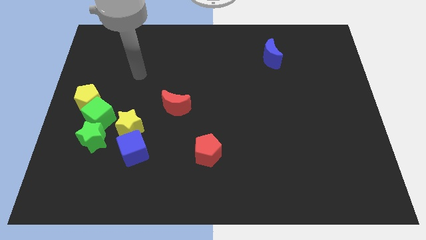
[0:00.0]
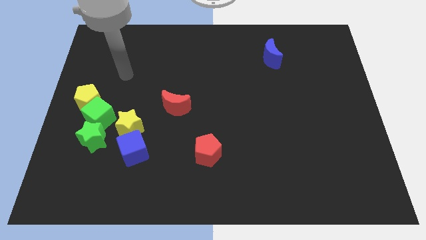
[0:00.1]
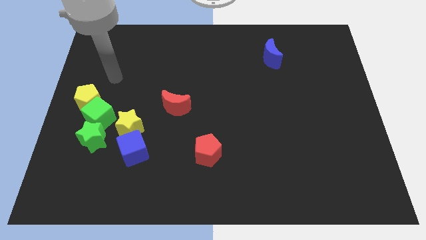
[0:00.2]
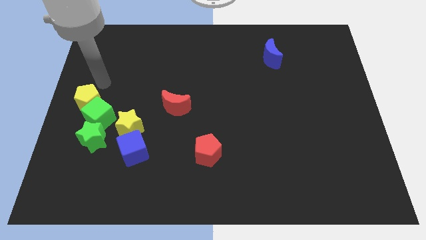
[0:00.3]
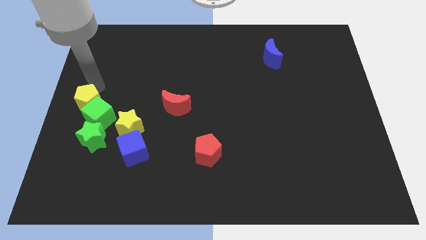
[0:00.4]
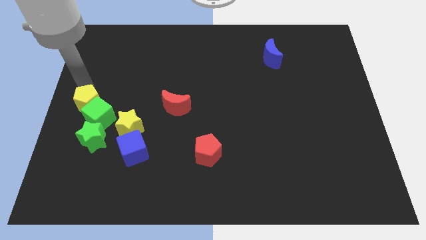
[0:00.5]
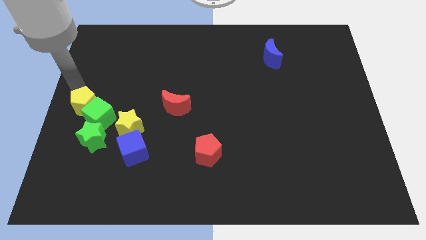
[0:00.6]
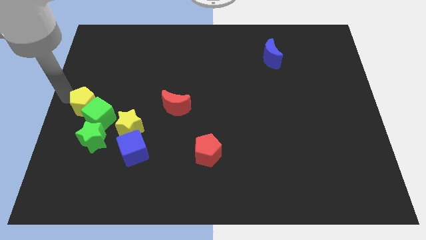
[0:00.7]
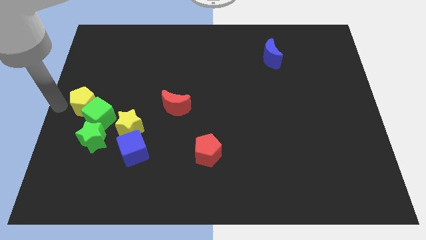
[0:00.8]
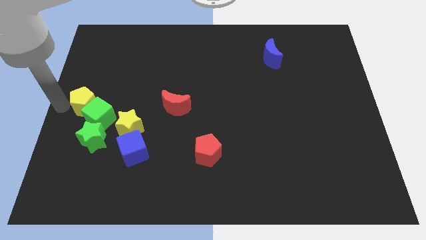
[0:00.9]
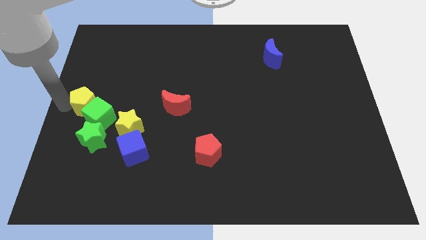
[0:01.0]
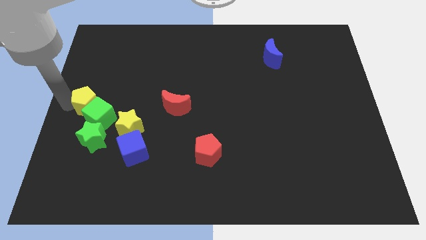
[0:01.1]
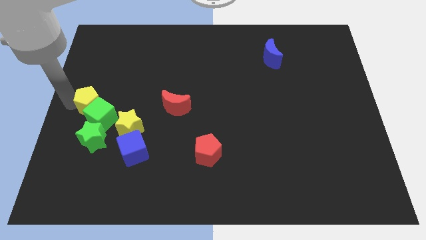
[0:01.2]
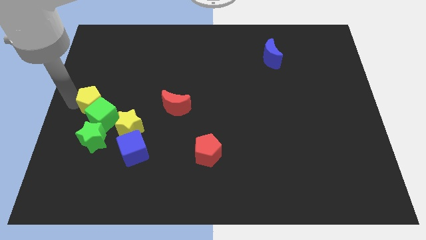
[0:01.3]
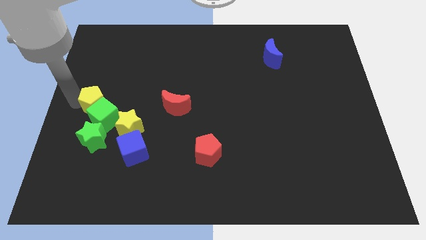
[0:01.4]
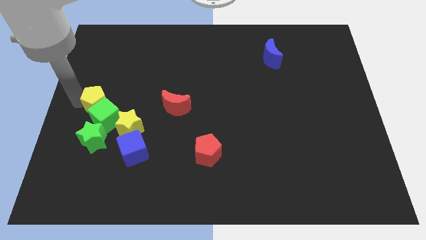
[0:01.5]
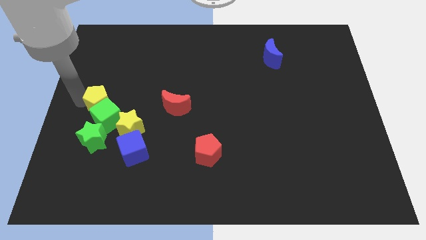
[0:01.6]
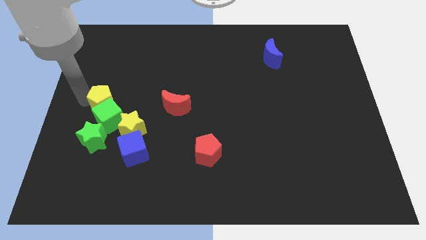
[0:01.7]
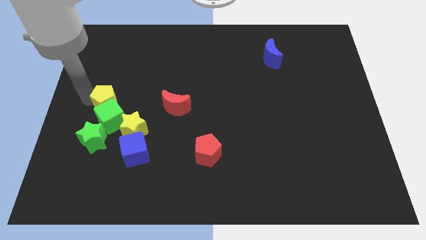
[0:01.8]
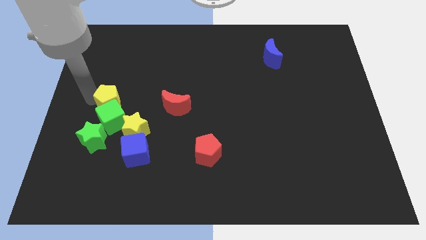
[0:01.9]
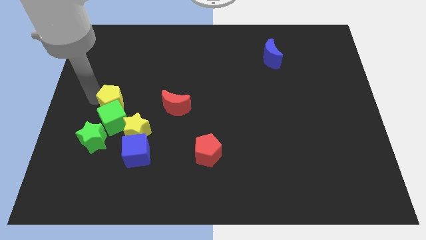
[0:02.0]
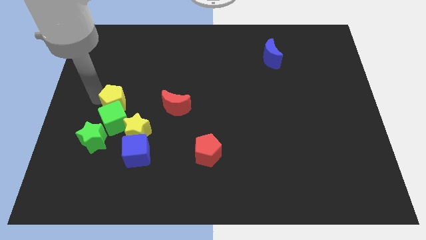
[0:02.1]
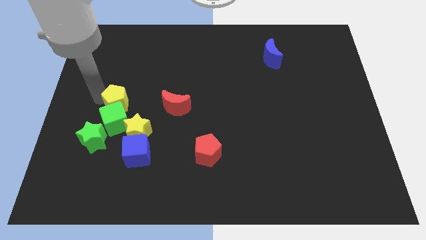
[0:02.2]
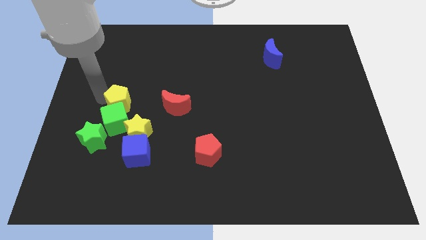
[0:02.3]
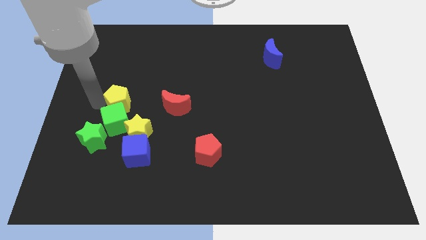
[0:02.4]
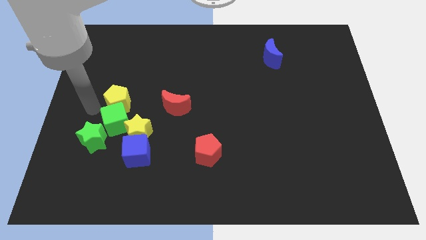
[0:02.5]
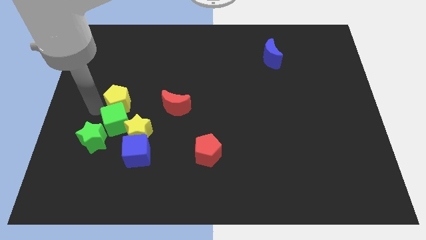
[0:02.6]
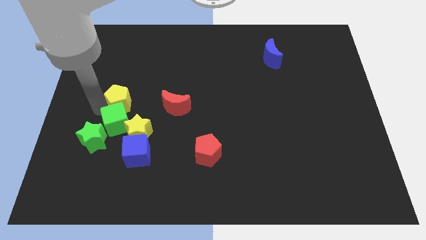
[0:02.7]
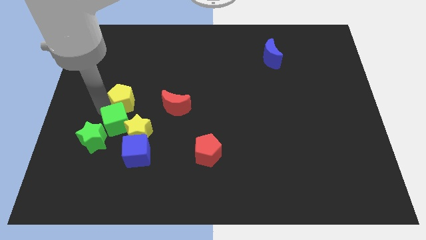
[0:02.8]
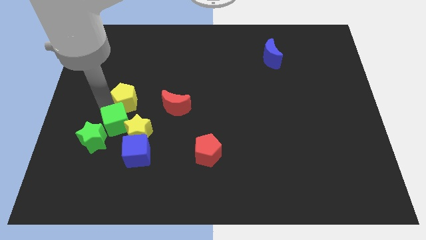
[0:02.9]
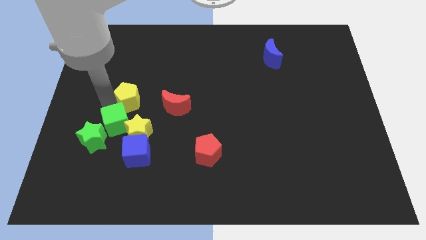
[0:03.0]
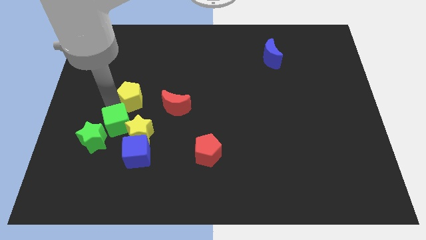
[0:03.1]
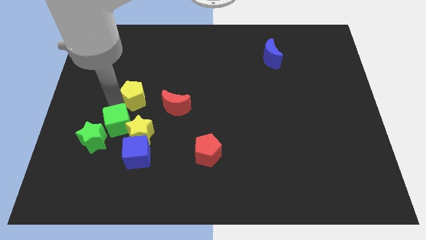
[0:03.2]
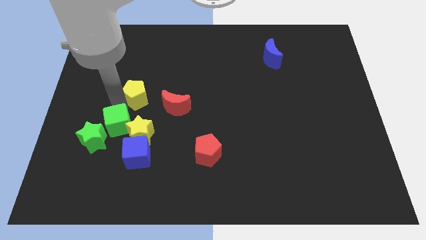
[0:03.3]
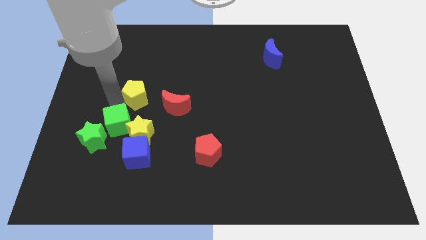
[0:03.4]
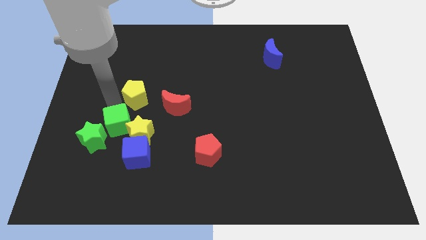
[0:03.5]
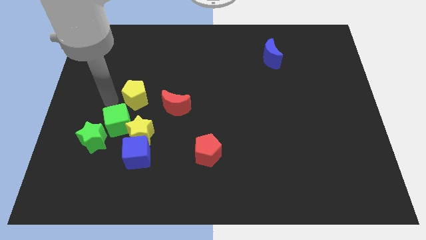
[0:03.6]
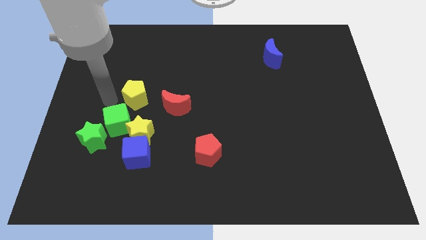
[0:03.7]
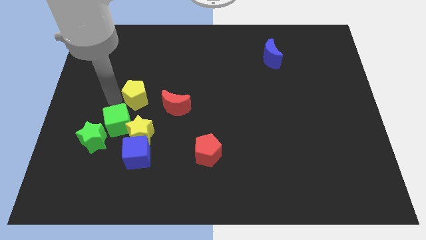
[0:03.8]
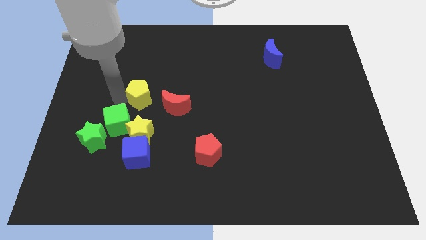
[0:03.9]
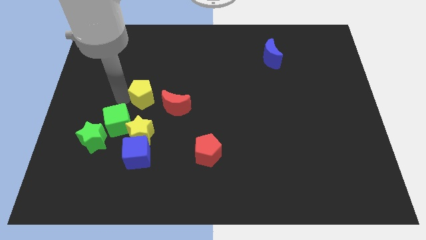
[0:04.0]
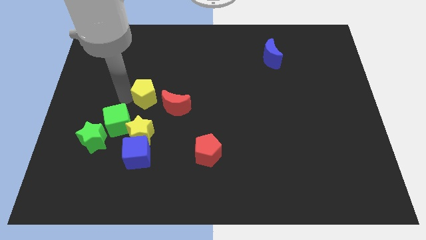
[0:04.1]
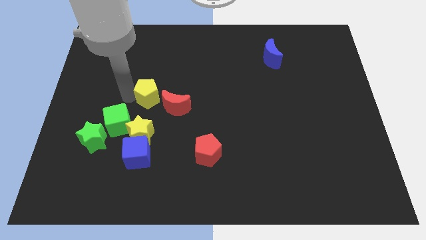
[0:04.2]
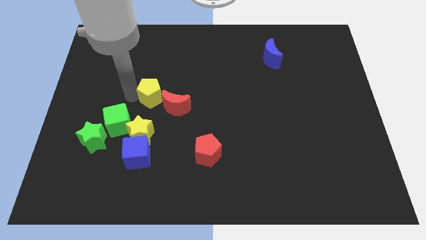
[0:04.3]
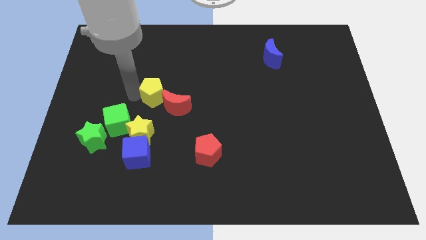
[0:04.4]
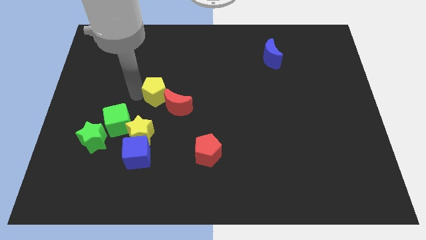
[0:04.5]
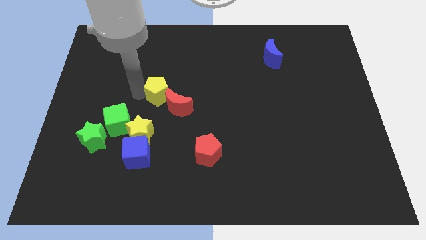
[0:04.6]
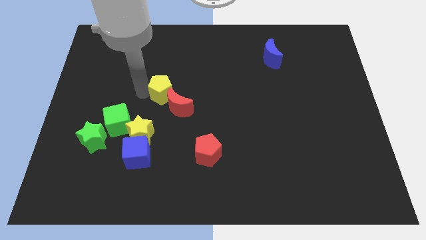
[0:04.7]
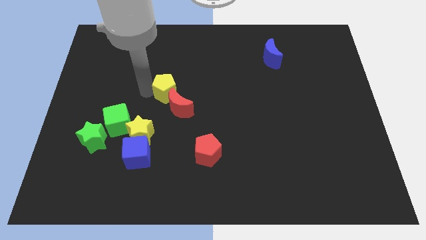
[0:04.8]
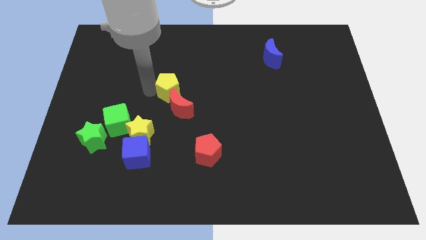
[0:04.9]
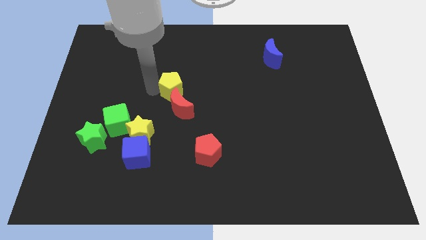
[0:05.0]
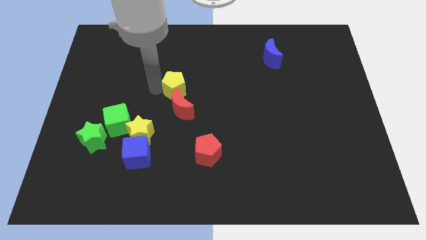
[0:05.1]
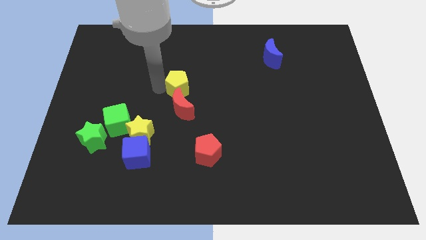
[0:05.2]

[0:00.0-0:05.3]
move the yellow pentagon to the right

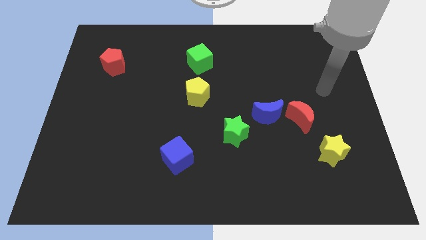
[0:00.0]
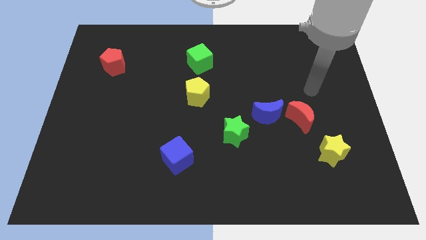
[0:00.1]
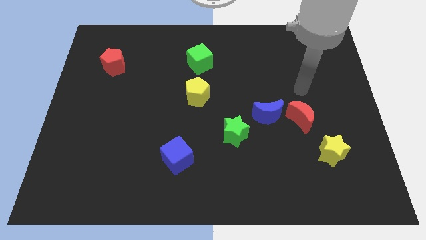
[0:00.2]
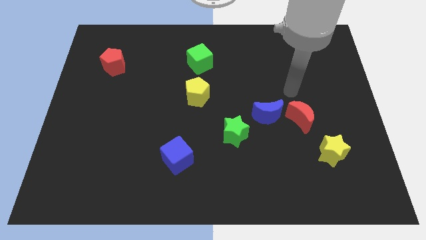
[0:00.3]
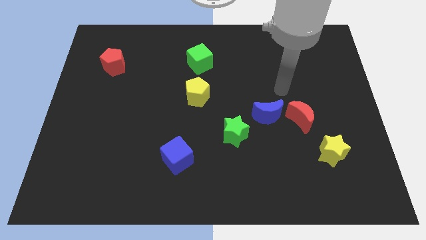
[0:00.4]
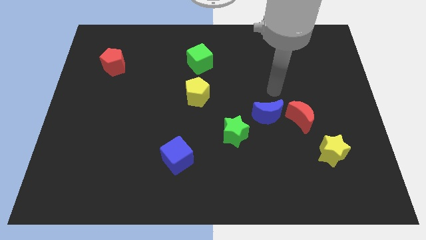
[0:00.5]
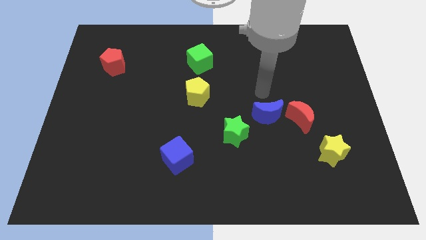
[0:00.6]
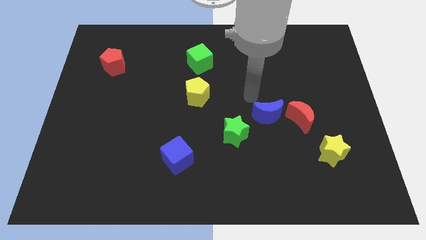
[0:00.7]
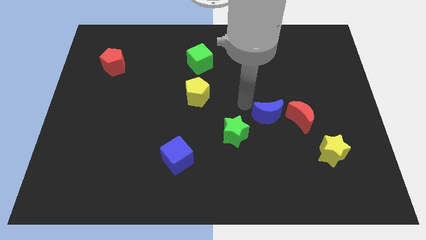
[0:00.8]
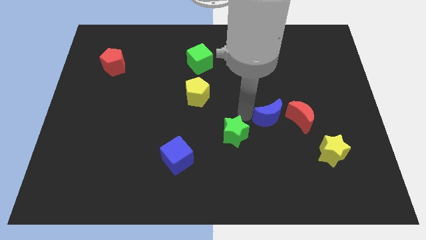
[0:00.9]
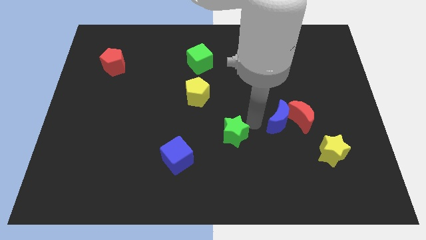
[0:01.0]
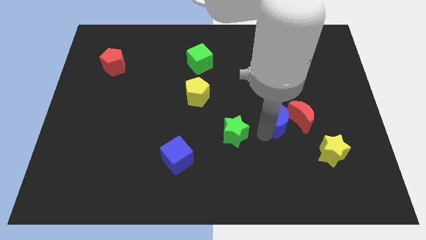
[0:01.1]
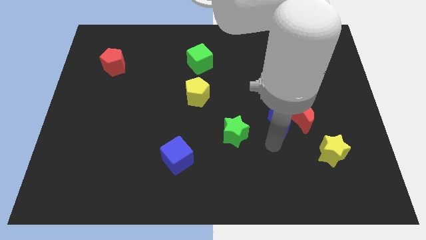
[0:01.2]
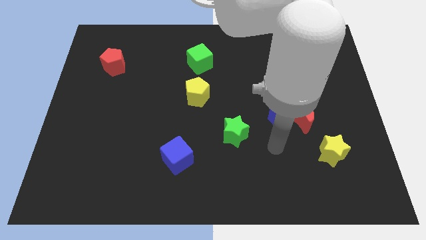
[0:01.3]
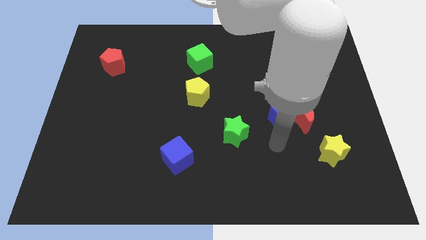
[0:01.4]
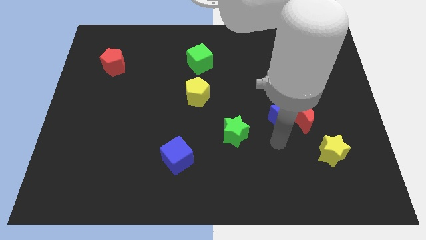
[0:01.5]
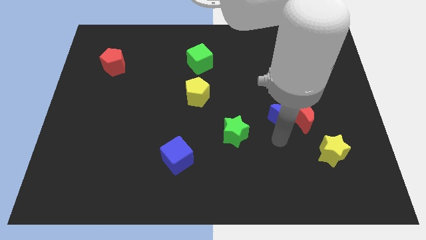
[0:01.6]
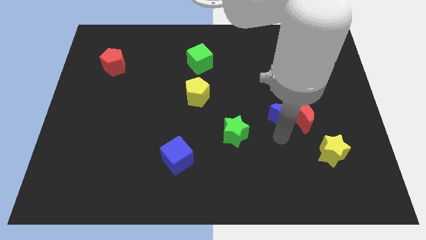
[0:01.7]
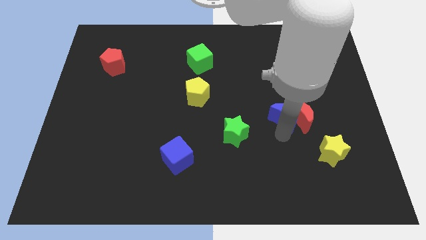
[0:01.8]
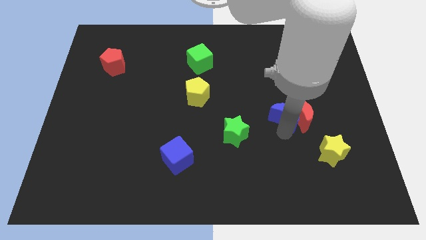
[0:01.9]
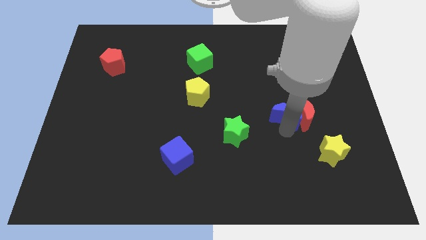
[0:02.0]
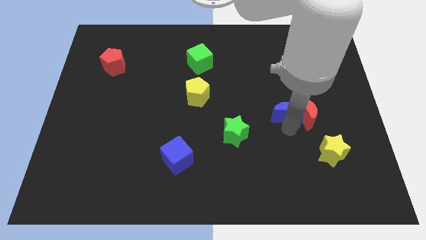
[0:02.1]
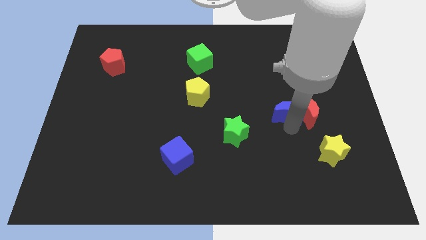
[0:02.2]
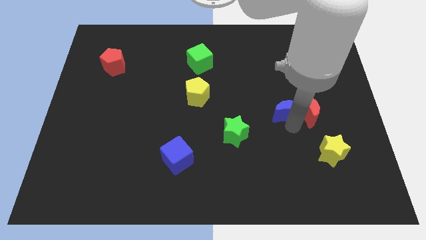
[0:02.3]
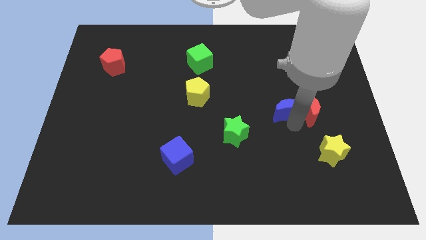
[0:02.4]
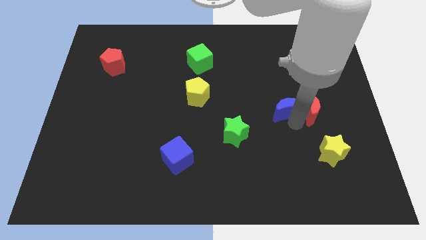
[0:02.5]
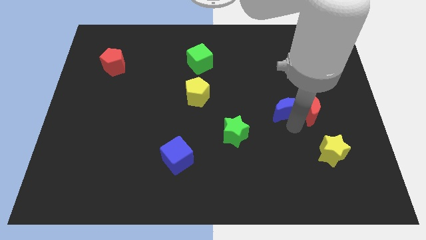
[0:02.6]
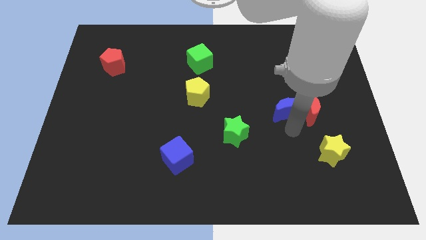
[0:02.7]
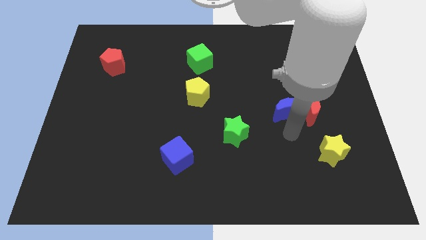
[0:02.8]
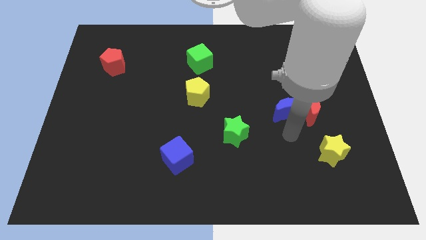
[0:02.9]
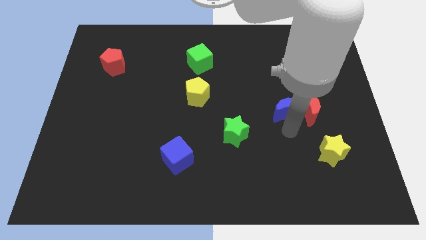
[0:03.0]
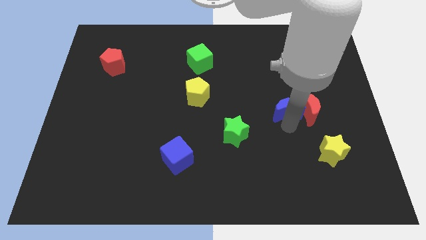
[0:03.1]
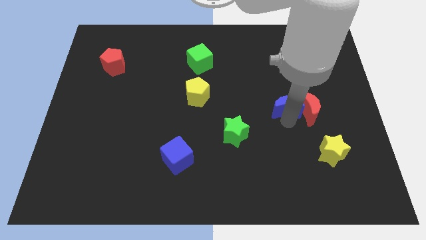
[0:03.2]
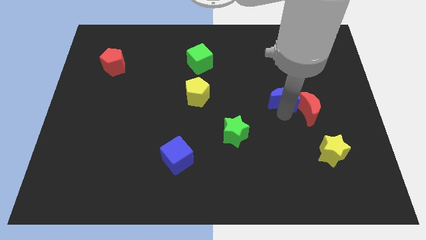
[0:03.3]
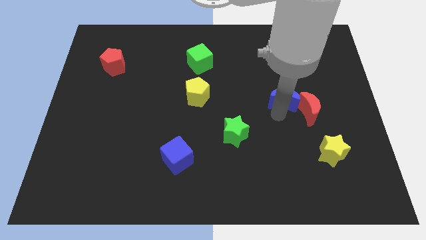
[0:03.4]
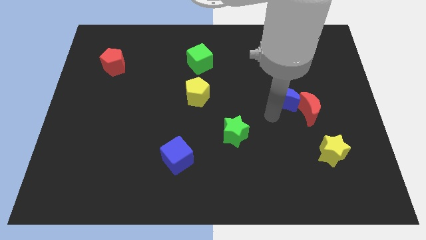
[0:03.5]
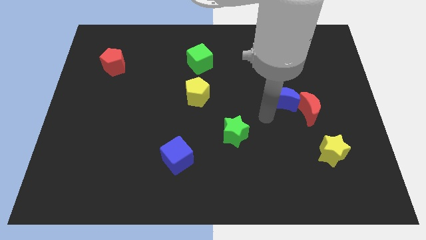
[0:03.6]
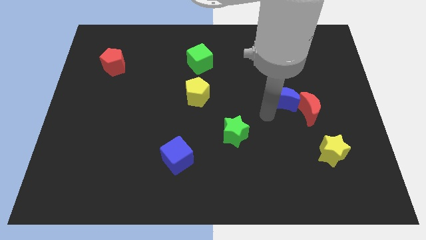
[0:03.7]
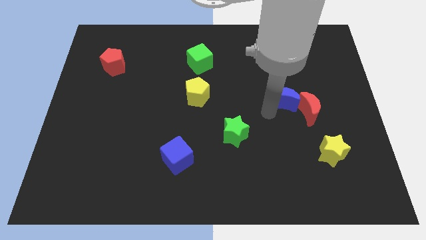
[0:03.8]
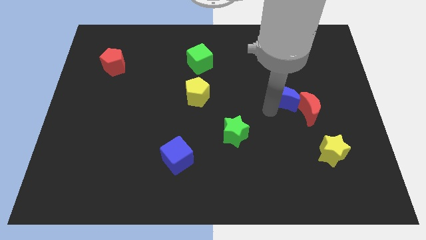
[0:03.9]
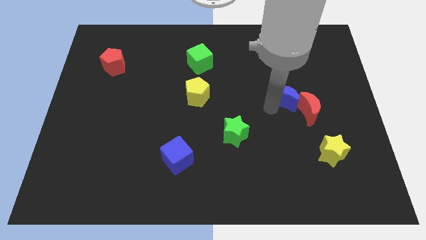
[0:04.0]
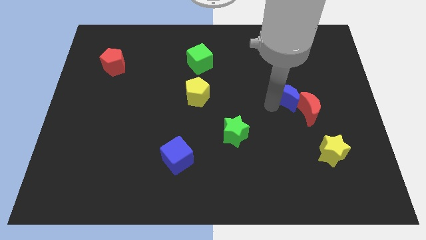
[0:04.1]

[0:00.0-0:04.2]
slightly move the blue moon upwards and right diagonally
